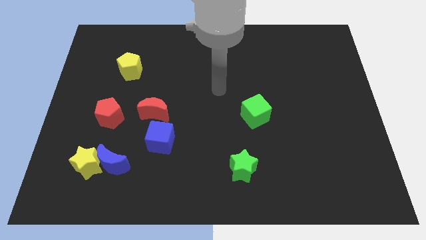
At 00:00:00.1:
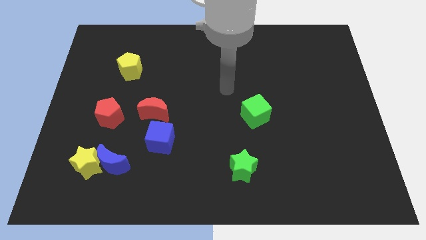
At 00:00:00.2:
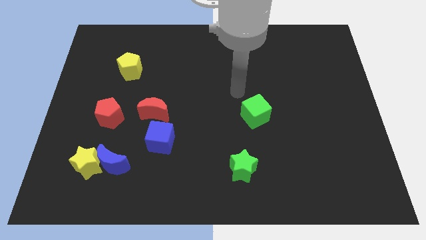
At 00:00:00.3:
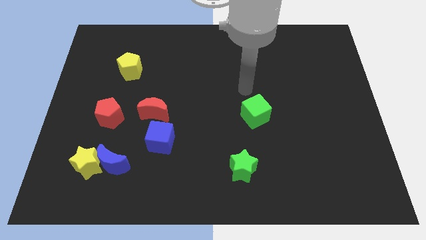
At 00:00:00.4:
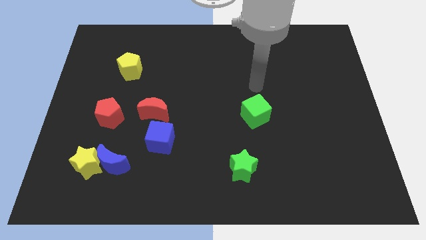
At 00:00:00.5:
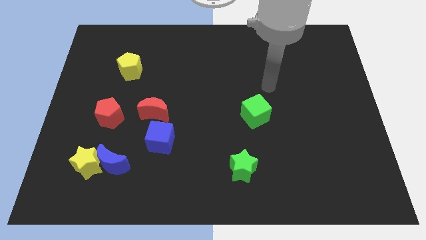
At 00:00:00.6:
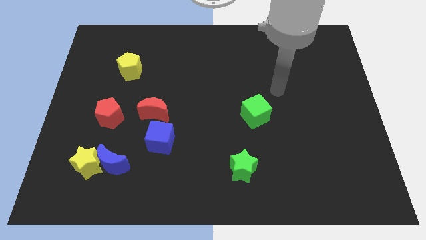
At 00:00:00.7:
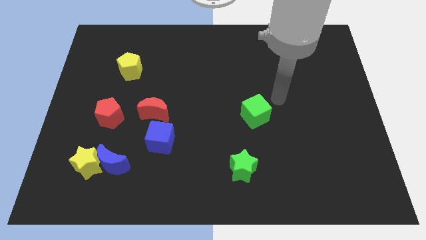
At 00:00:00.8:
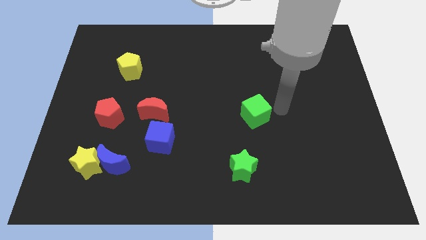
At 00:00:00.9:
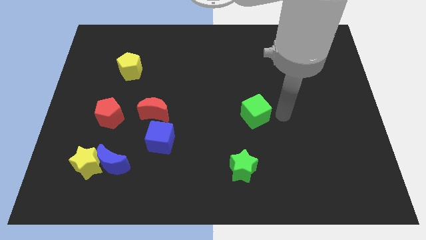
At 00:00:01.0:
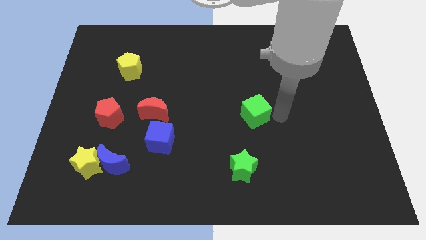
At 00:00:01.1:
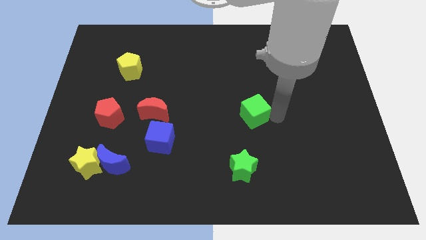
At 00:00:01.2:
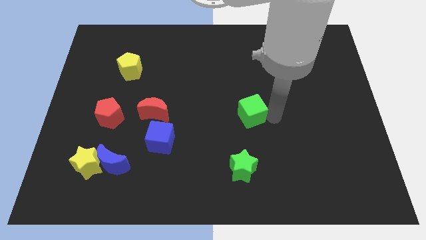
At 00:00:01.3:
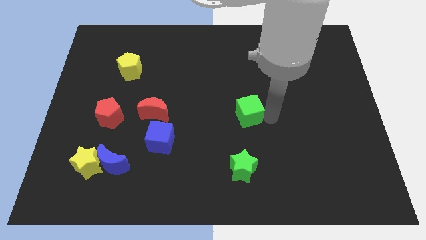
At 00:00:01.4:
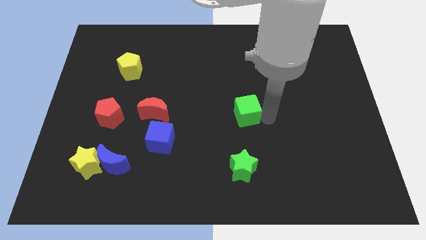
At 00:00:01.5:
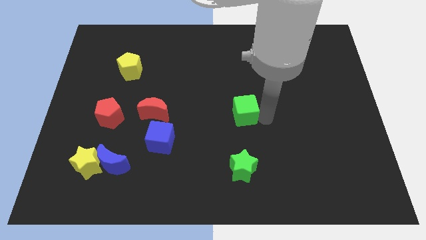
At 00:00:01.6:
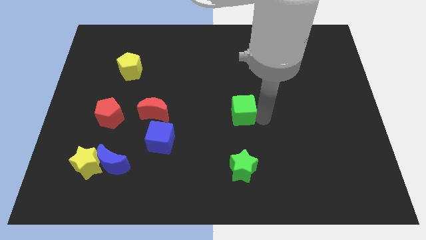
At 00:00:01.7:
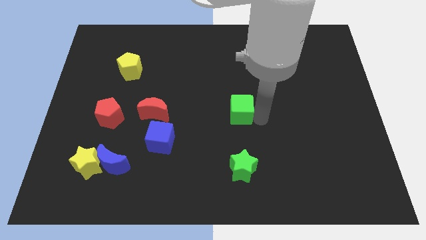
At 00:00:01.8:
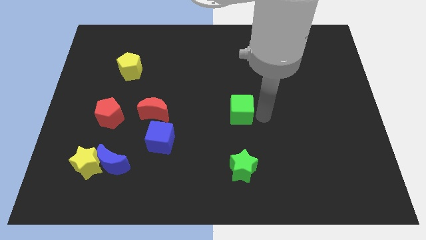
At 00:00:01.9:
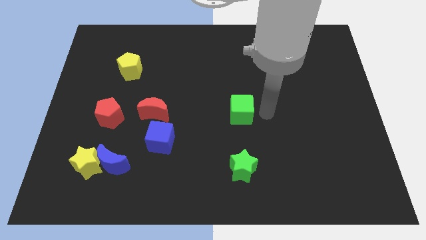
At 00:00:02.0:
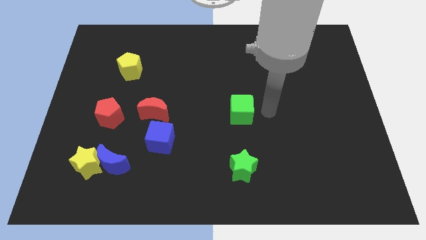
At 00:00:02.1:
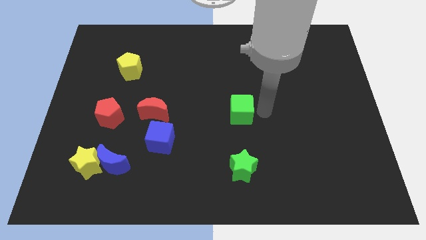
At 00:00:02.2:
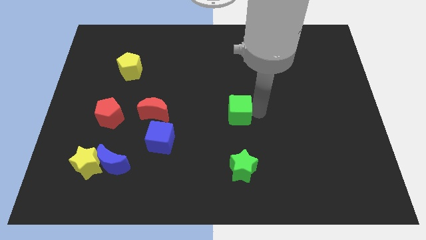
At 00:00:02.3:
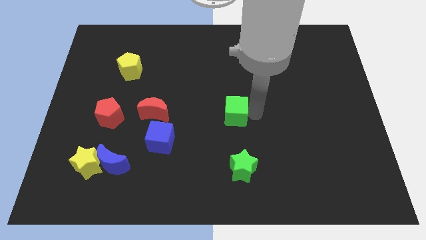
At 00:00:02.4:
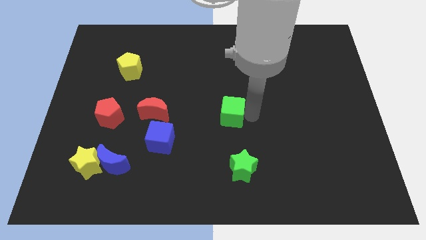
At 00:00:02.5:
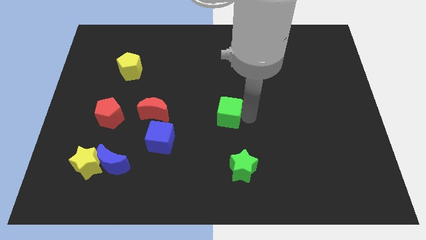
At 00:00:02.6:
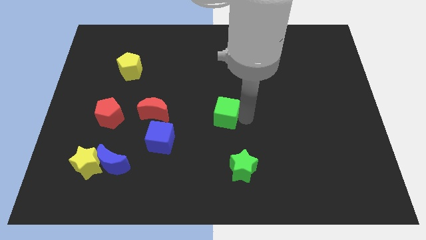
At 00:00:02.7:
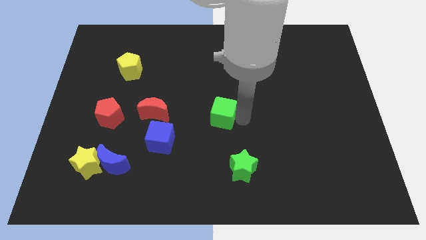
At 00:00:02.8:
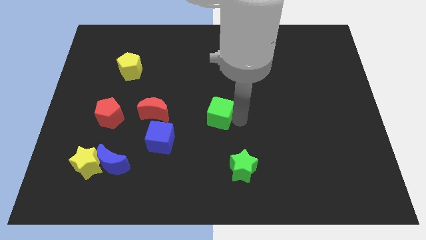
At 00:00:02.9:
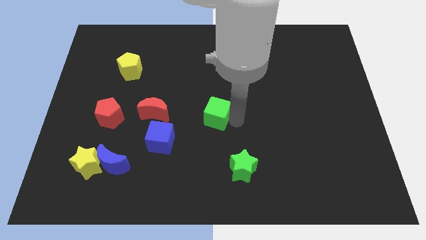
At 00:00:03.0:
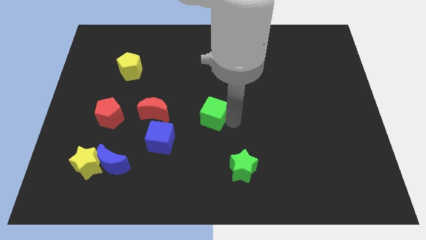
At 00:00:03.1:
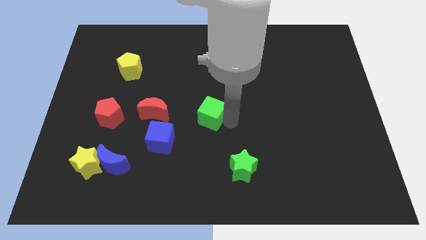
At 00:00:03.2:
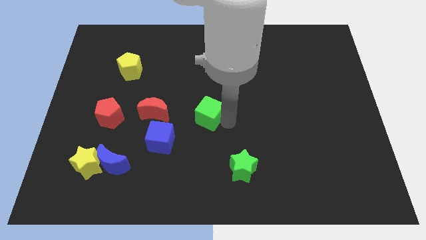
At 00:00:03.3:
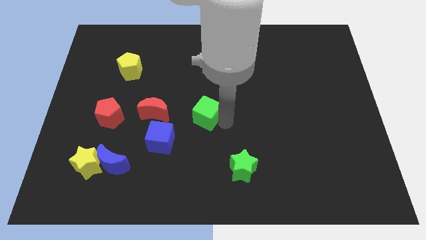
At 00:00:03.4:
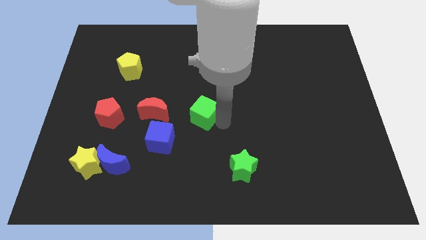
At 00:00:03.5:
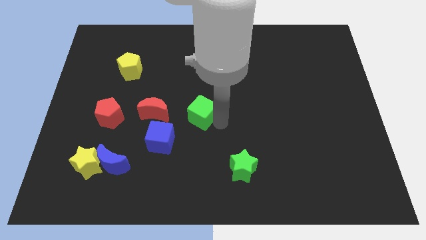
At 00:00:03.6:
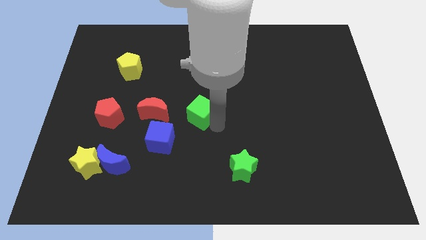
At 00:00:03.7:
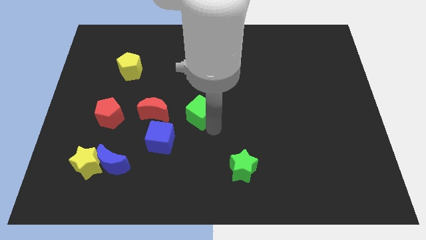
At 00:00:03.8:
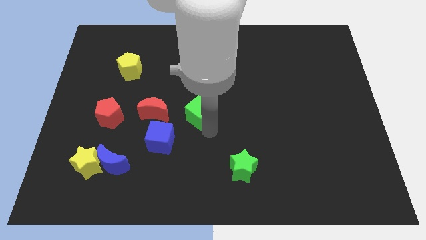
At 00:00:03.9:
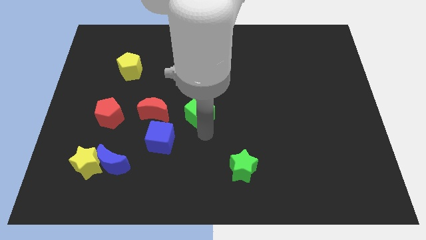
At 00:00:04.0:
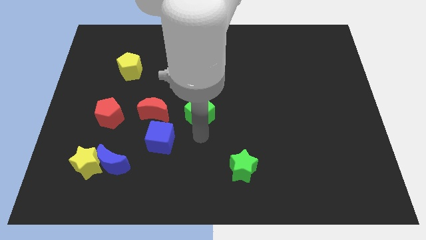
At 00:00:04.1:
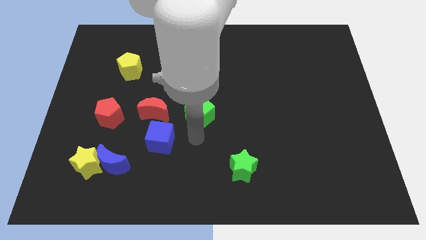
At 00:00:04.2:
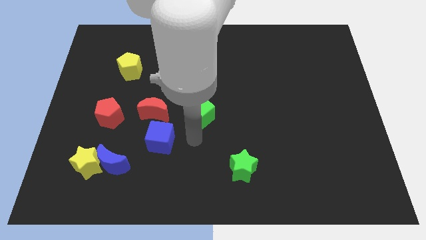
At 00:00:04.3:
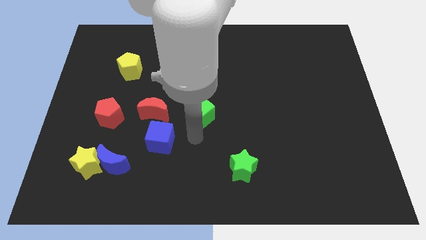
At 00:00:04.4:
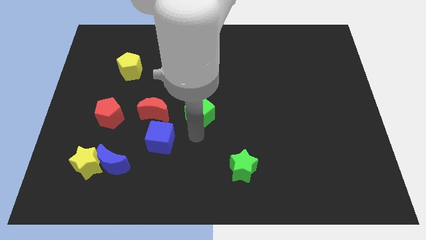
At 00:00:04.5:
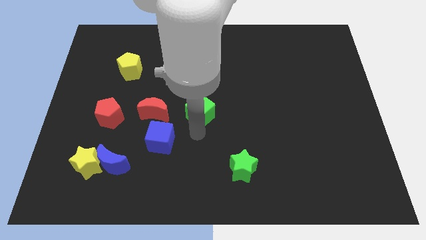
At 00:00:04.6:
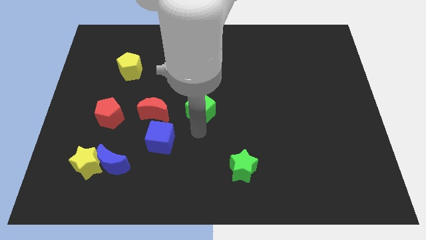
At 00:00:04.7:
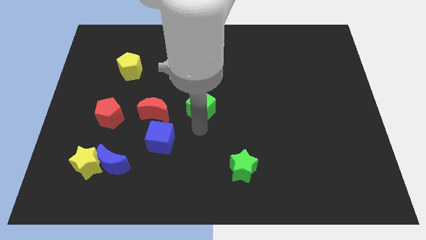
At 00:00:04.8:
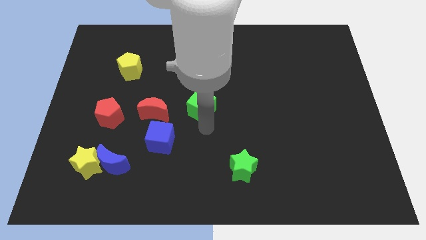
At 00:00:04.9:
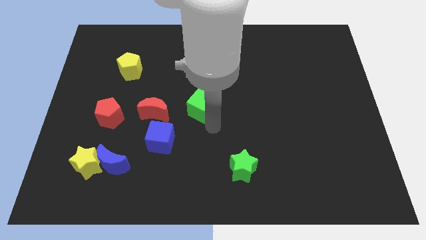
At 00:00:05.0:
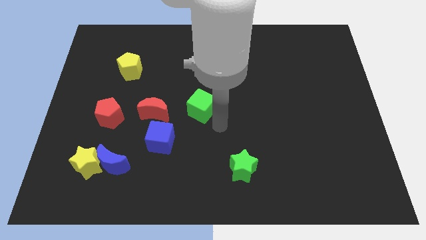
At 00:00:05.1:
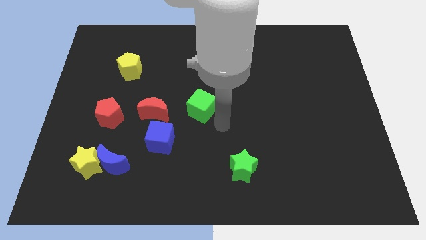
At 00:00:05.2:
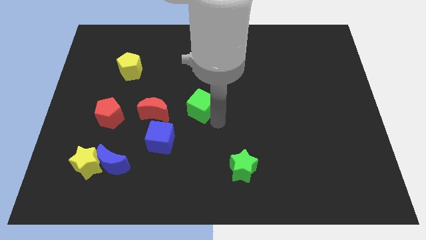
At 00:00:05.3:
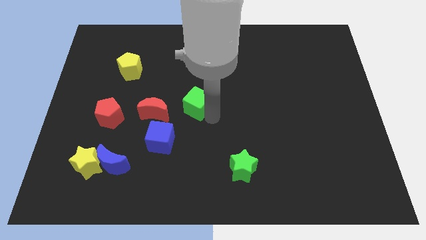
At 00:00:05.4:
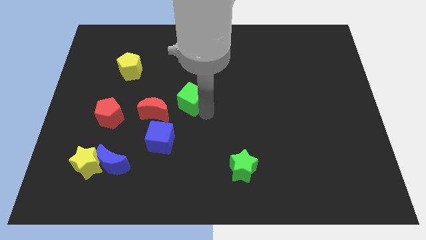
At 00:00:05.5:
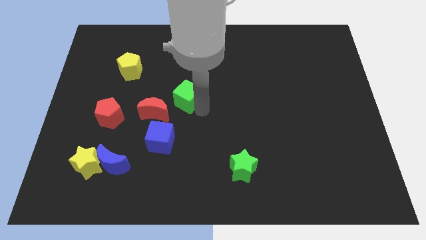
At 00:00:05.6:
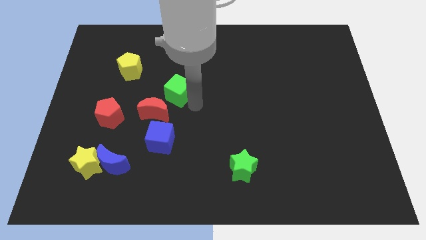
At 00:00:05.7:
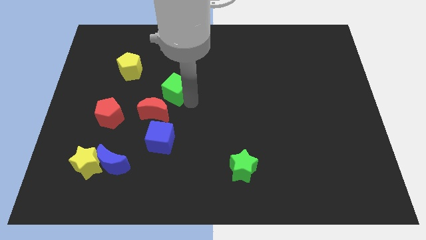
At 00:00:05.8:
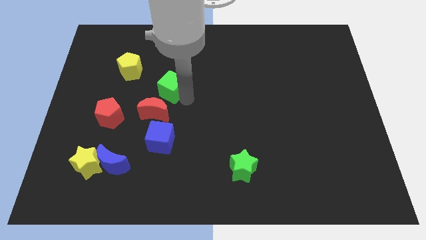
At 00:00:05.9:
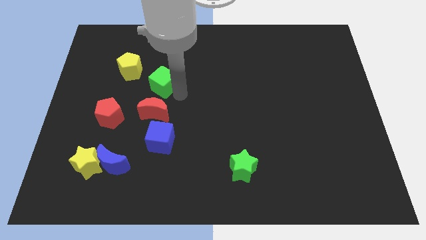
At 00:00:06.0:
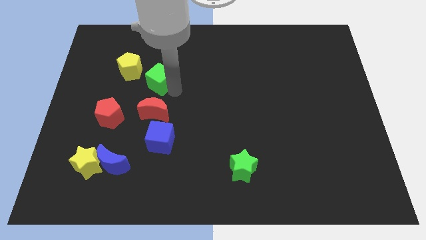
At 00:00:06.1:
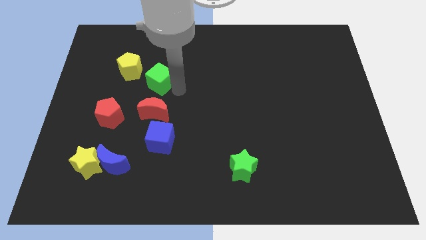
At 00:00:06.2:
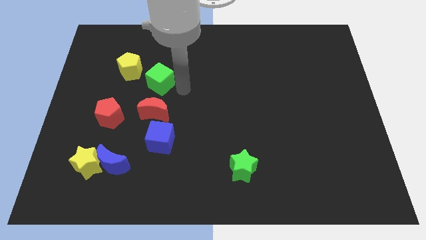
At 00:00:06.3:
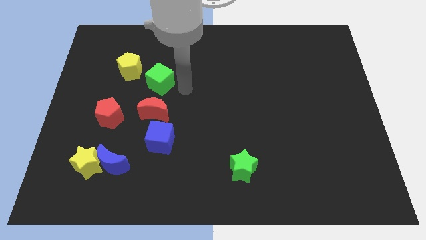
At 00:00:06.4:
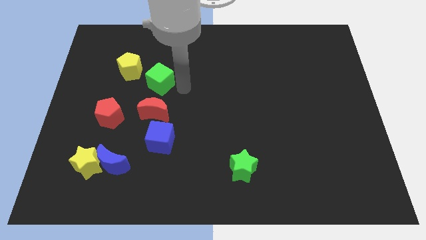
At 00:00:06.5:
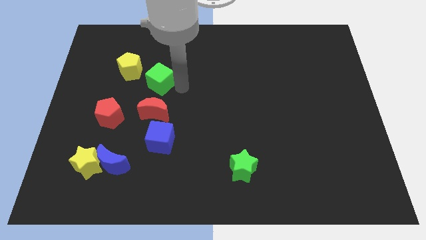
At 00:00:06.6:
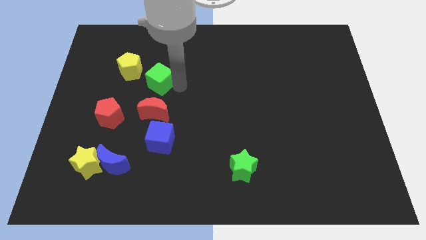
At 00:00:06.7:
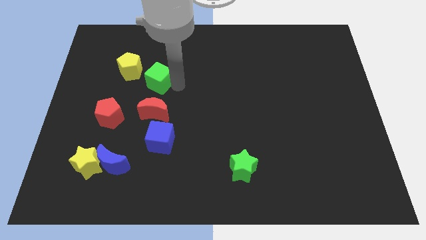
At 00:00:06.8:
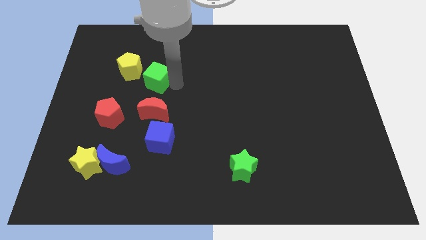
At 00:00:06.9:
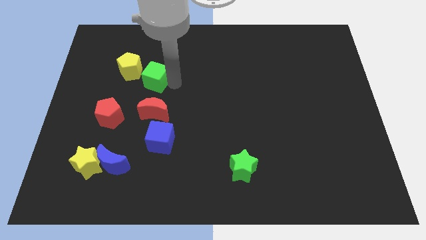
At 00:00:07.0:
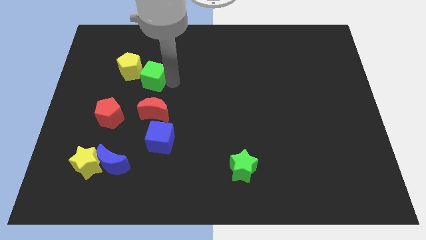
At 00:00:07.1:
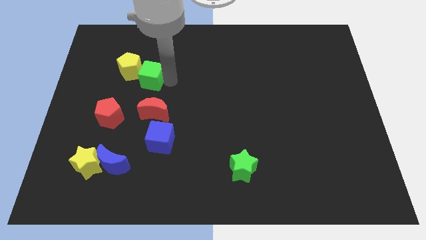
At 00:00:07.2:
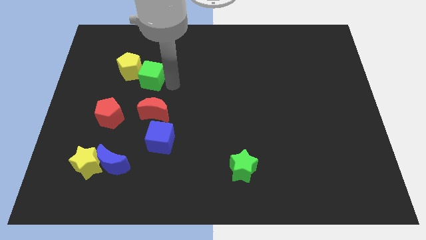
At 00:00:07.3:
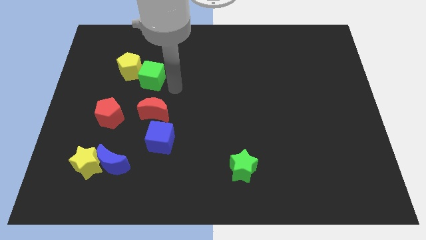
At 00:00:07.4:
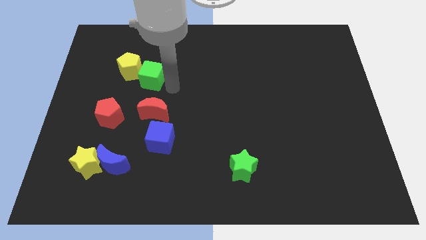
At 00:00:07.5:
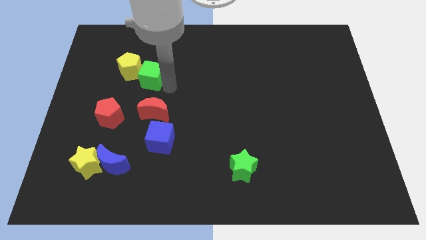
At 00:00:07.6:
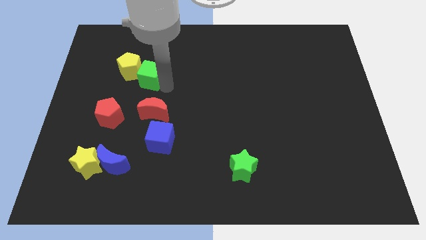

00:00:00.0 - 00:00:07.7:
push the green cube towards the yellow pentagon
